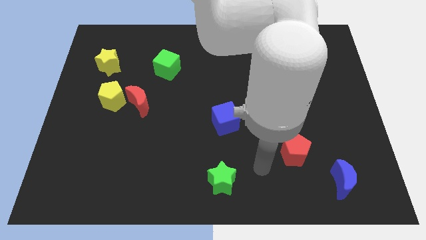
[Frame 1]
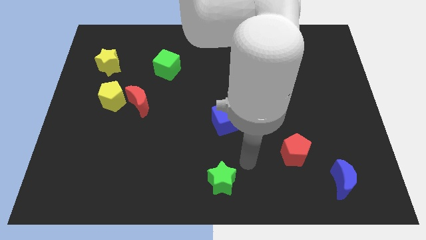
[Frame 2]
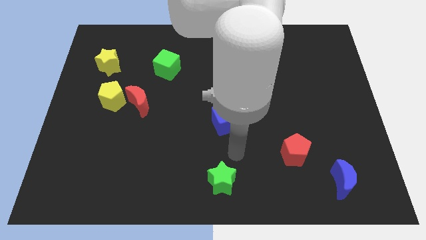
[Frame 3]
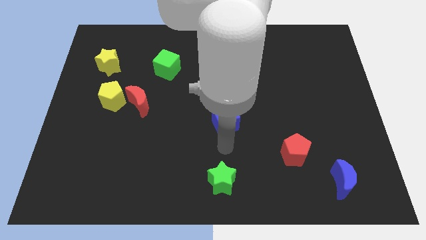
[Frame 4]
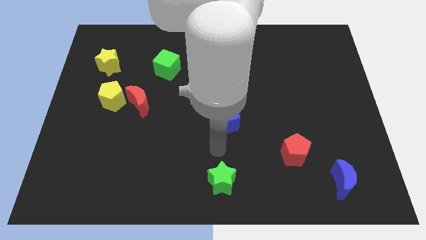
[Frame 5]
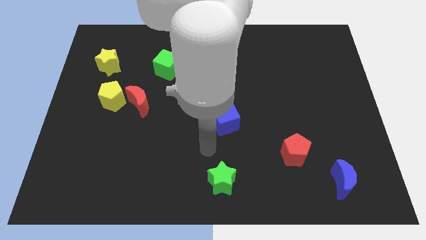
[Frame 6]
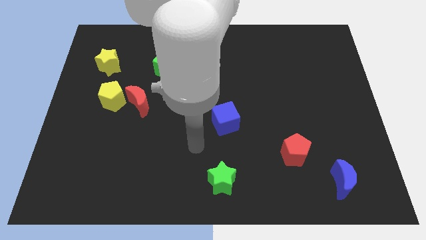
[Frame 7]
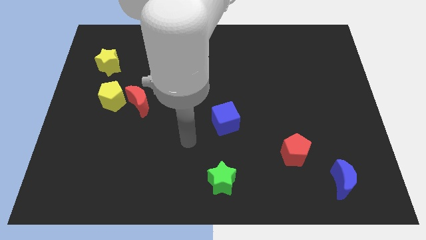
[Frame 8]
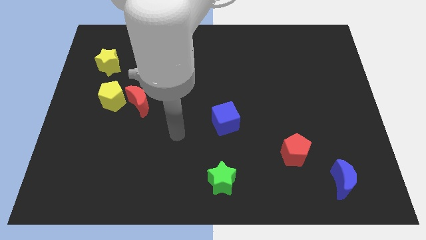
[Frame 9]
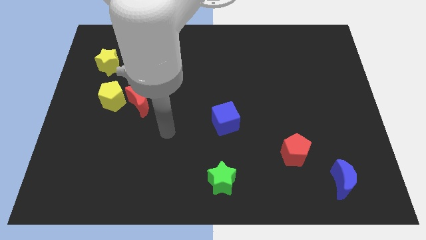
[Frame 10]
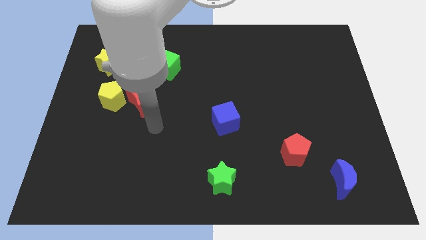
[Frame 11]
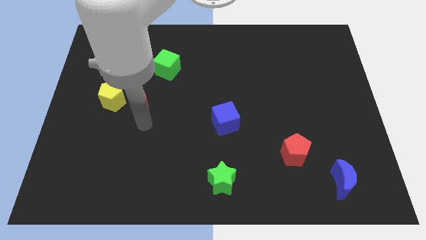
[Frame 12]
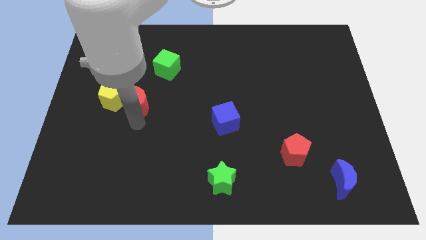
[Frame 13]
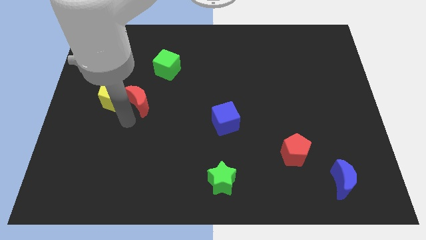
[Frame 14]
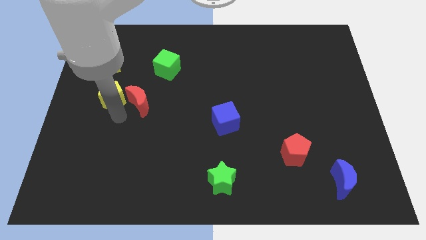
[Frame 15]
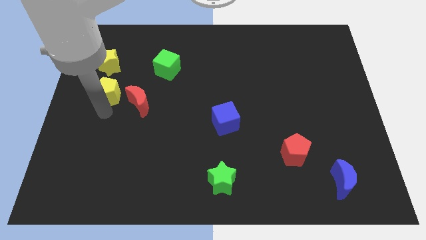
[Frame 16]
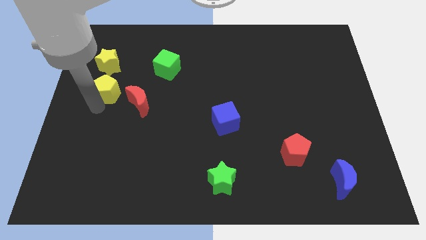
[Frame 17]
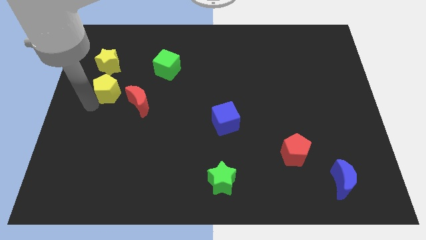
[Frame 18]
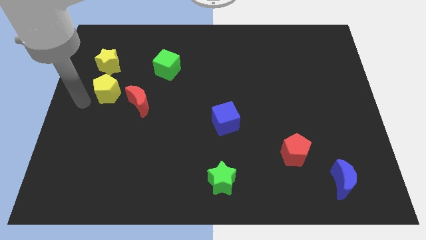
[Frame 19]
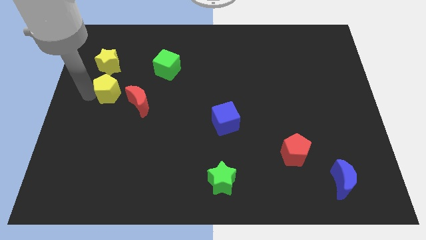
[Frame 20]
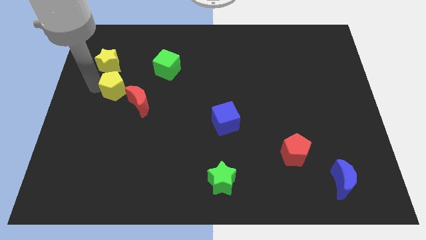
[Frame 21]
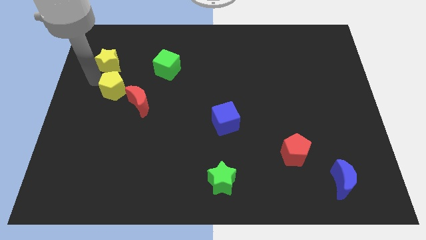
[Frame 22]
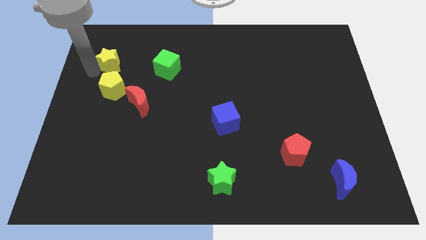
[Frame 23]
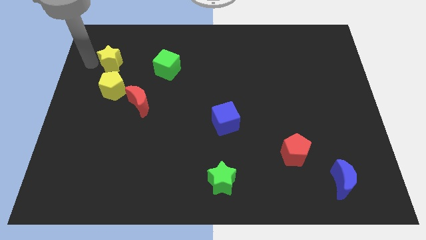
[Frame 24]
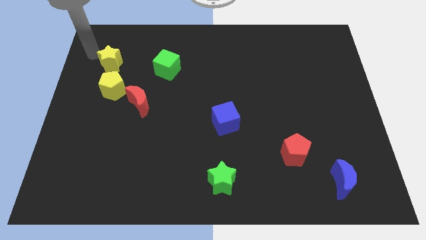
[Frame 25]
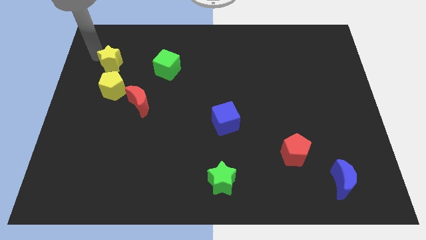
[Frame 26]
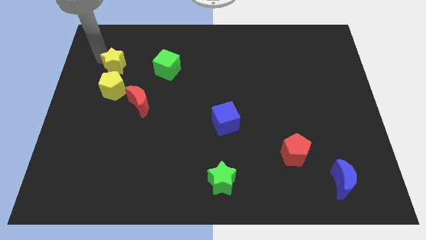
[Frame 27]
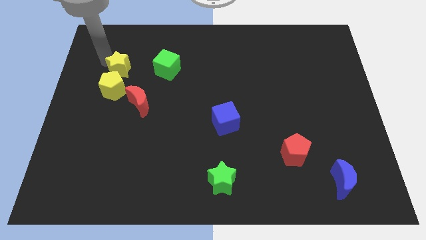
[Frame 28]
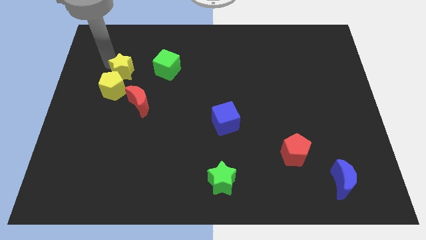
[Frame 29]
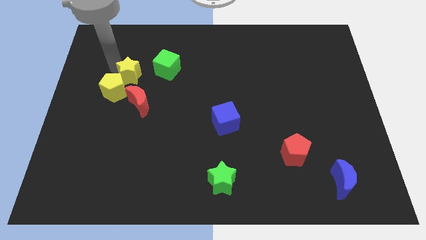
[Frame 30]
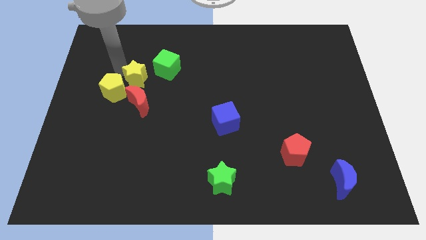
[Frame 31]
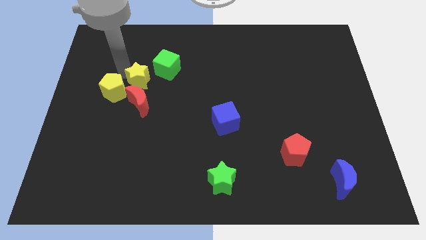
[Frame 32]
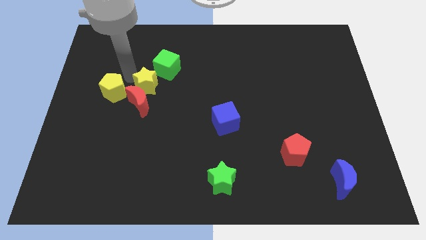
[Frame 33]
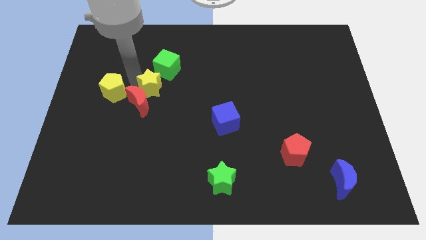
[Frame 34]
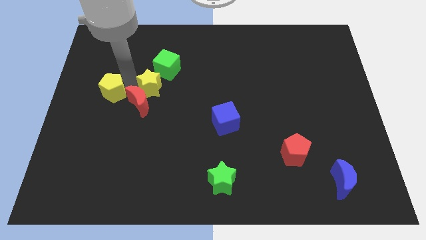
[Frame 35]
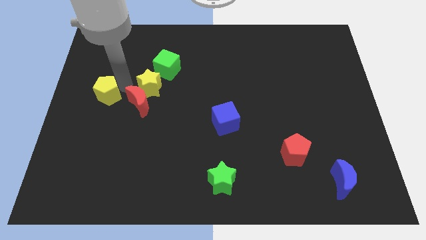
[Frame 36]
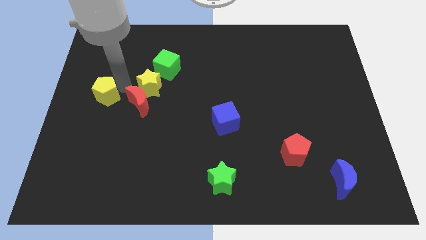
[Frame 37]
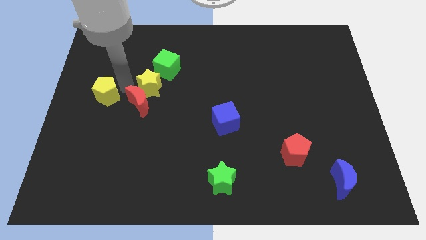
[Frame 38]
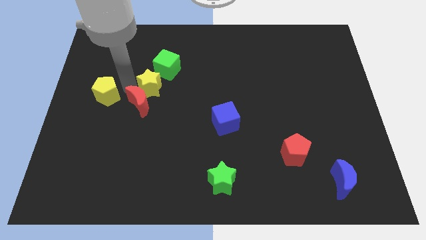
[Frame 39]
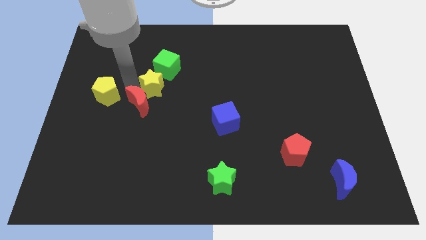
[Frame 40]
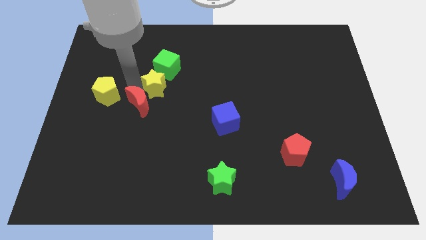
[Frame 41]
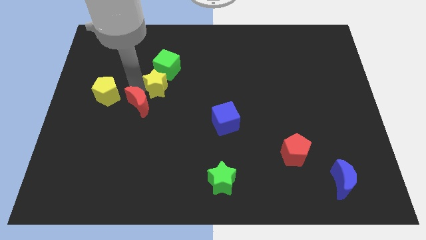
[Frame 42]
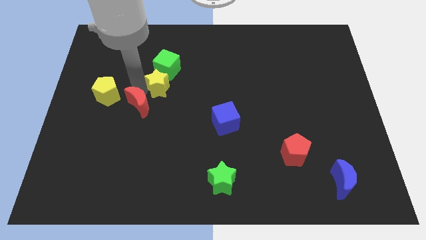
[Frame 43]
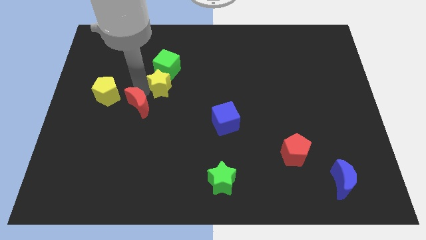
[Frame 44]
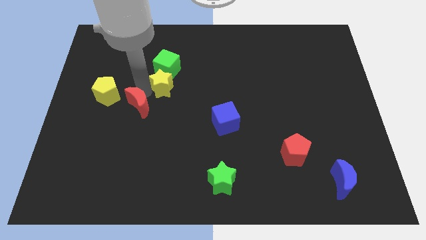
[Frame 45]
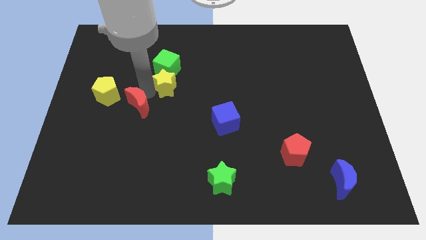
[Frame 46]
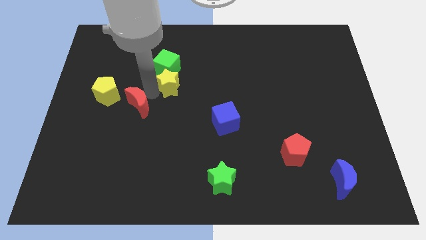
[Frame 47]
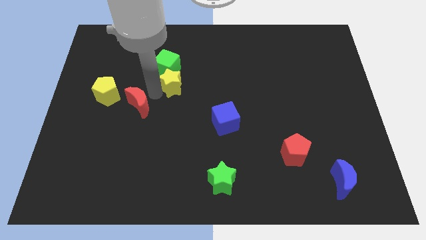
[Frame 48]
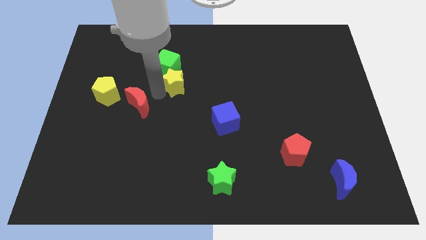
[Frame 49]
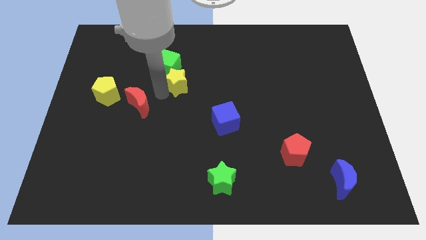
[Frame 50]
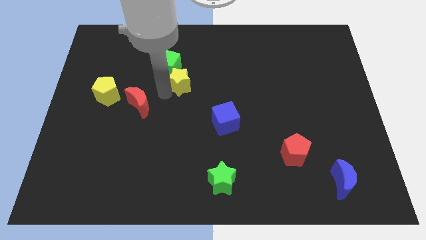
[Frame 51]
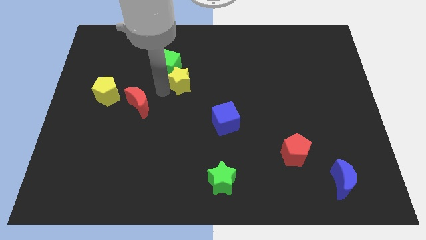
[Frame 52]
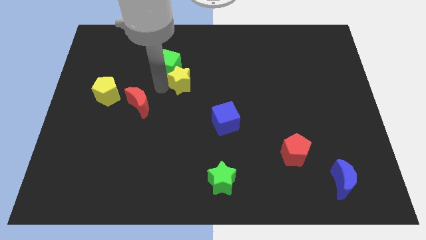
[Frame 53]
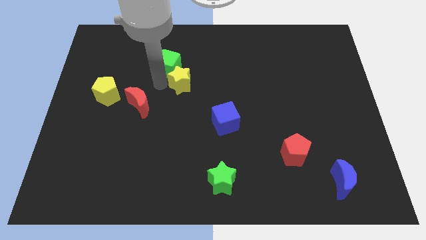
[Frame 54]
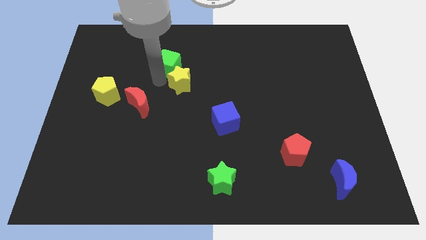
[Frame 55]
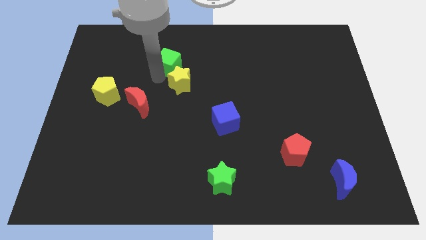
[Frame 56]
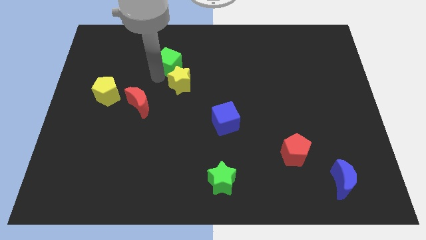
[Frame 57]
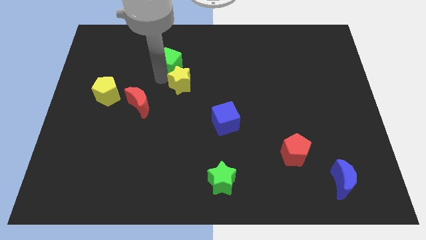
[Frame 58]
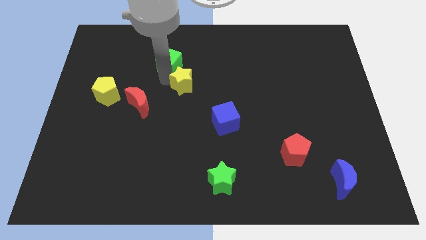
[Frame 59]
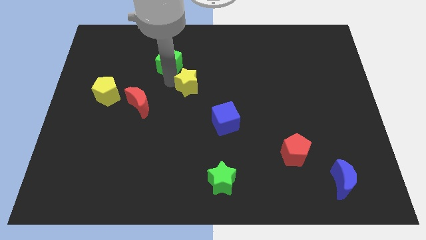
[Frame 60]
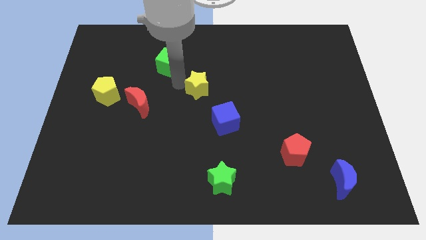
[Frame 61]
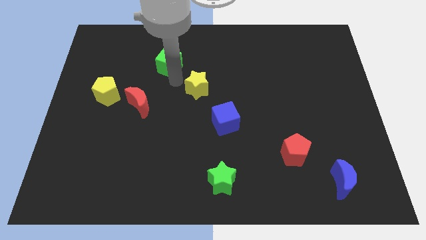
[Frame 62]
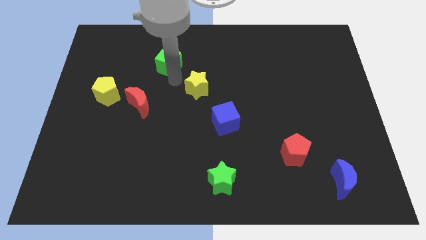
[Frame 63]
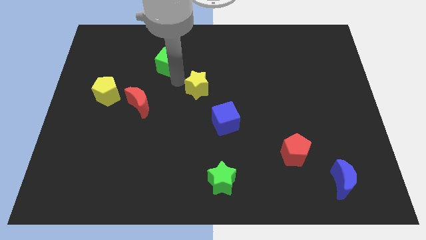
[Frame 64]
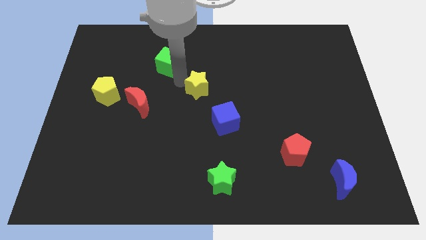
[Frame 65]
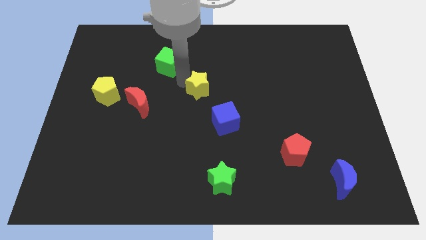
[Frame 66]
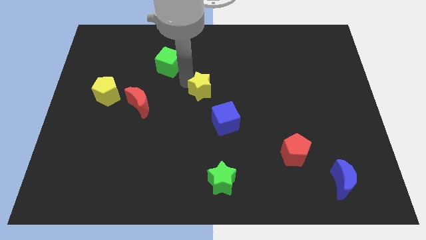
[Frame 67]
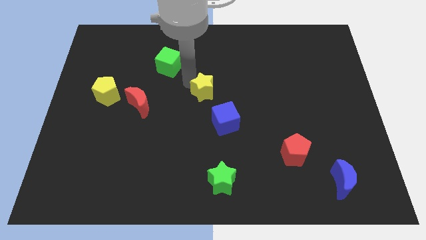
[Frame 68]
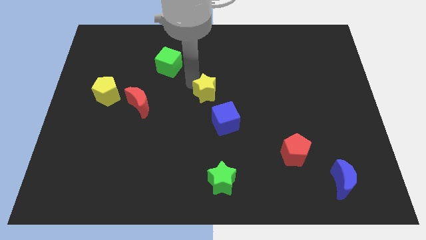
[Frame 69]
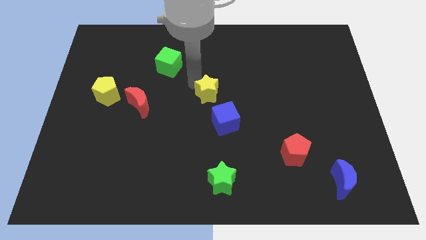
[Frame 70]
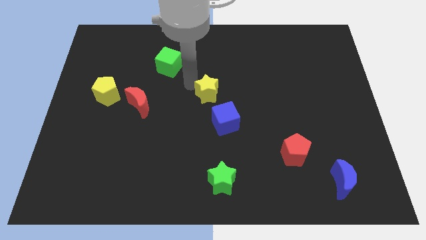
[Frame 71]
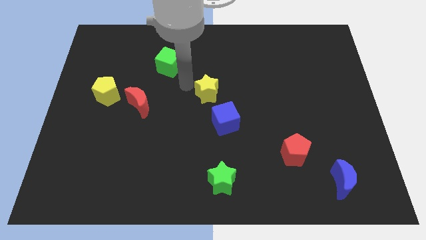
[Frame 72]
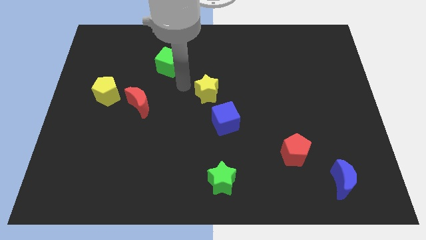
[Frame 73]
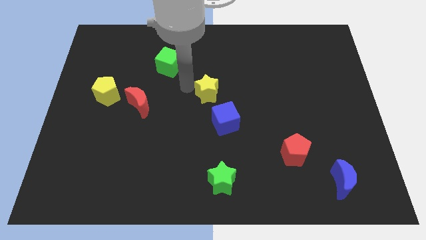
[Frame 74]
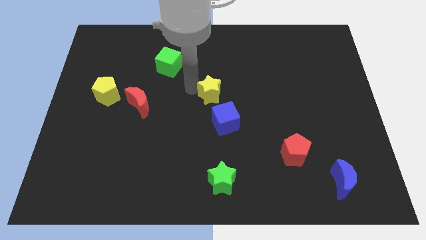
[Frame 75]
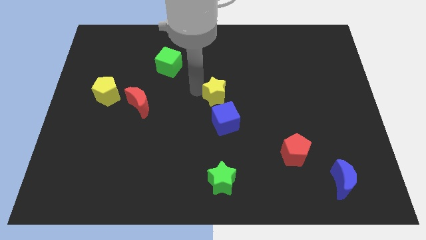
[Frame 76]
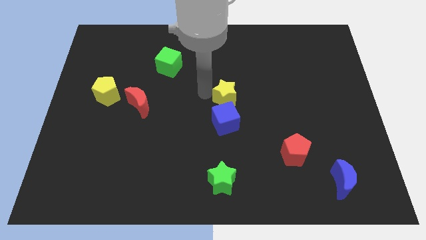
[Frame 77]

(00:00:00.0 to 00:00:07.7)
move the yellow star diagonally up and to the right of the blue cube

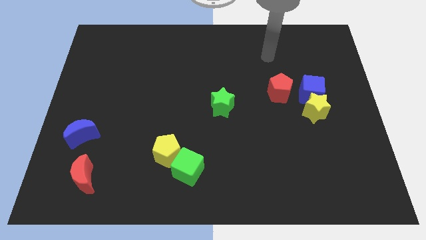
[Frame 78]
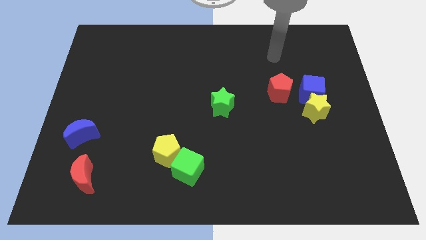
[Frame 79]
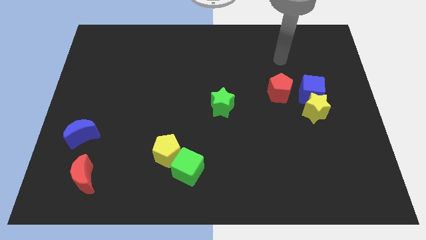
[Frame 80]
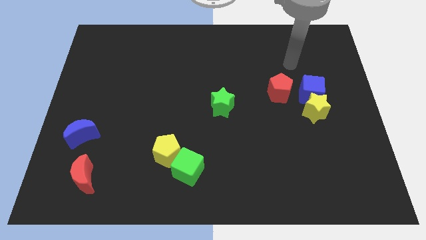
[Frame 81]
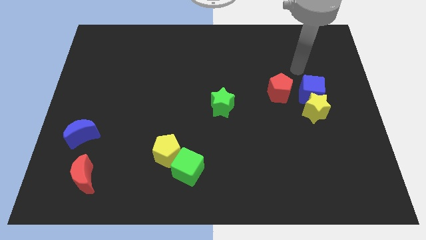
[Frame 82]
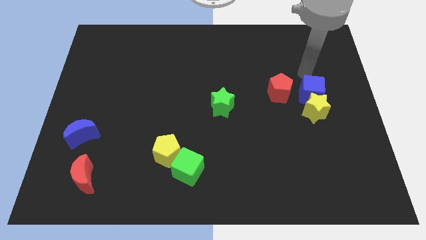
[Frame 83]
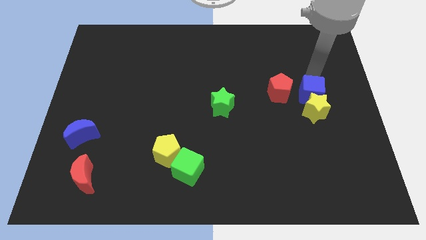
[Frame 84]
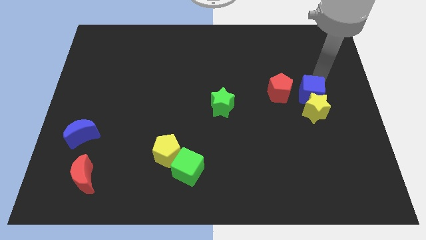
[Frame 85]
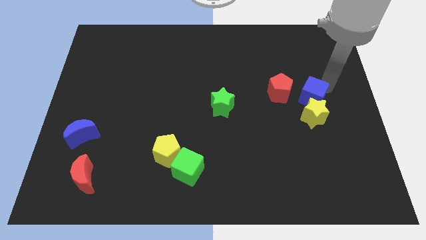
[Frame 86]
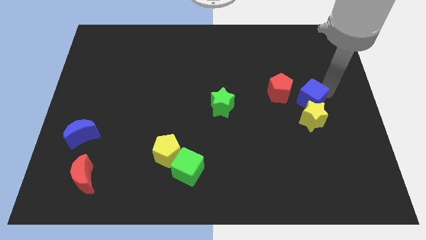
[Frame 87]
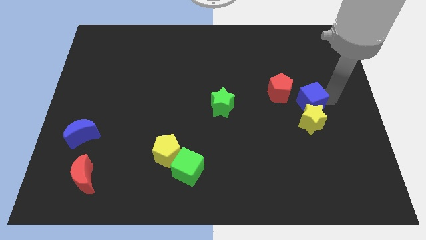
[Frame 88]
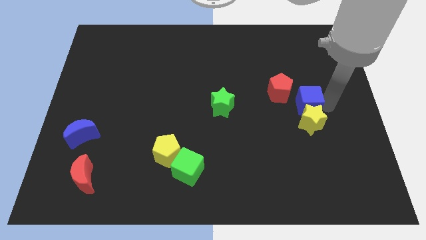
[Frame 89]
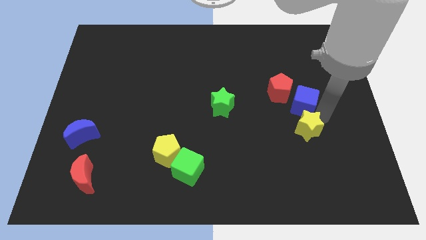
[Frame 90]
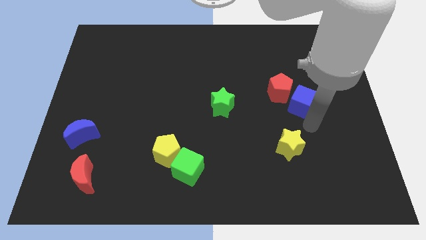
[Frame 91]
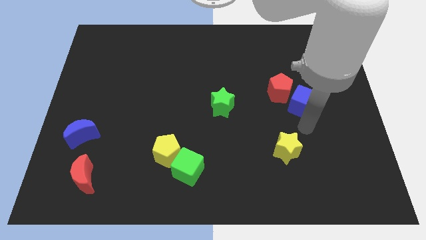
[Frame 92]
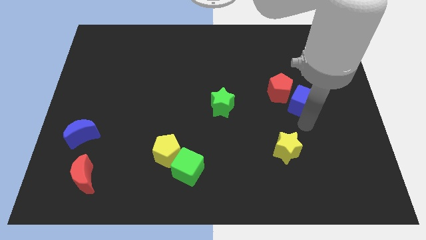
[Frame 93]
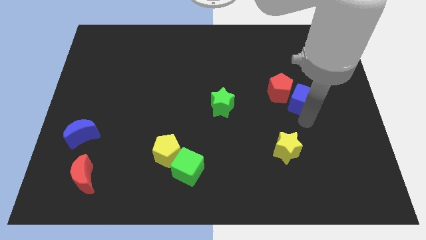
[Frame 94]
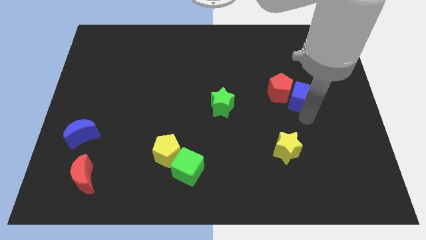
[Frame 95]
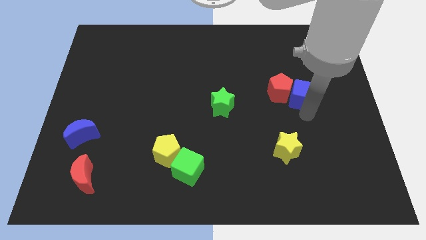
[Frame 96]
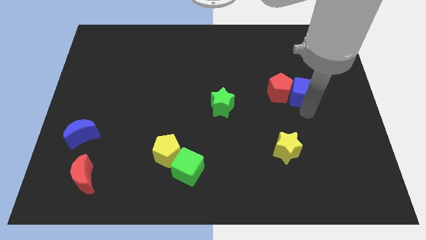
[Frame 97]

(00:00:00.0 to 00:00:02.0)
slide the blue cube to the top right of the red pentagon
